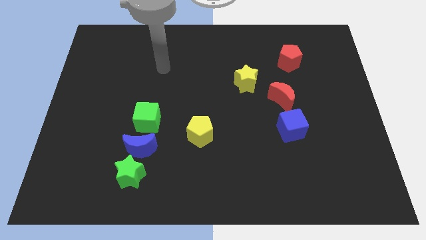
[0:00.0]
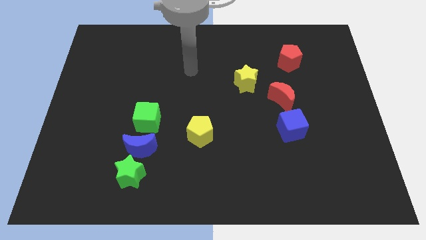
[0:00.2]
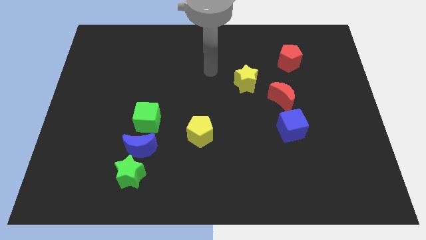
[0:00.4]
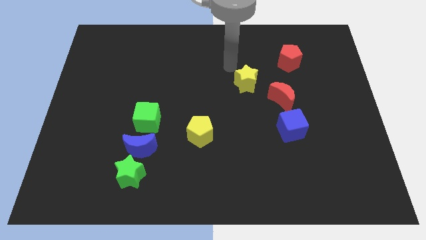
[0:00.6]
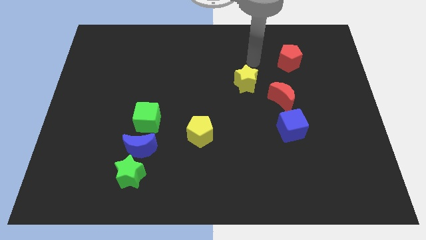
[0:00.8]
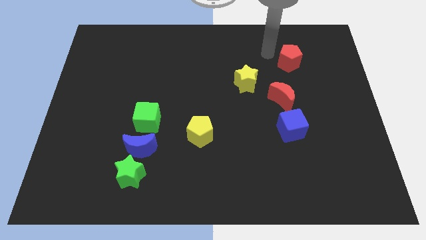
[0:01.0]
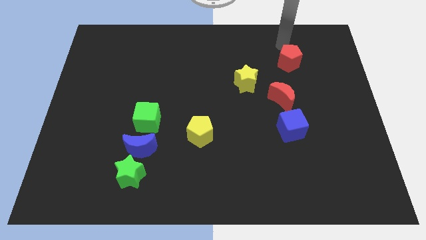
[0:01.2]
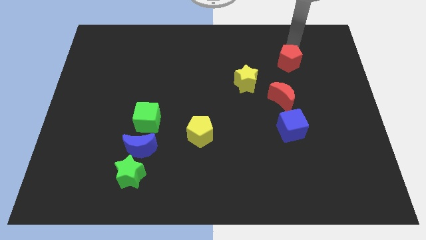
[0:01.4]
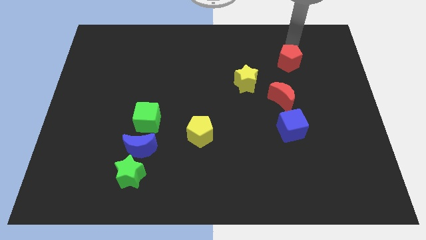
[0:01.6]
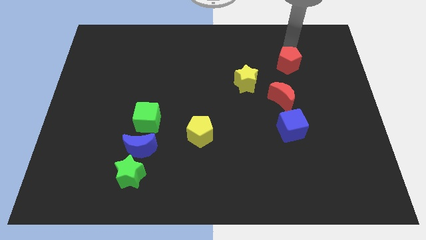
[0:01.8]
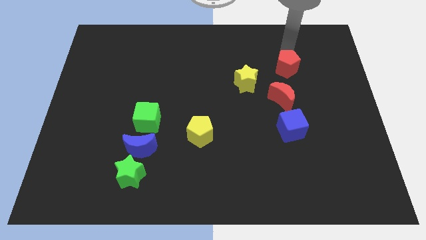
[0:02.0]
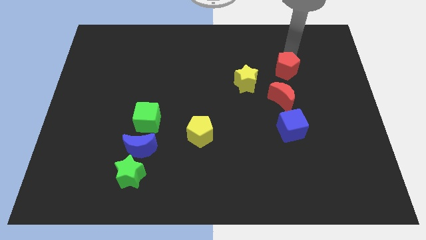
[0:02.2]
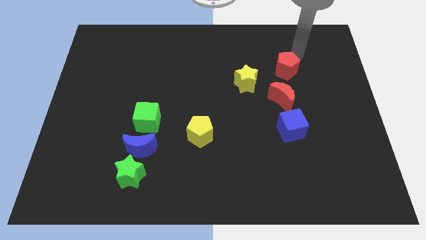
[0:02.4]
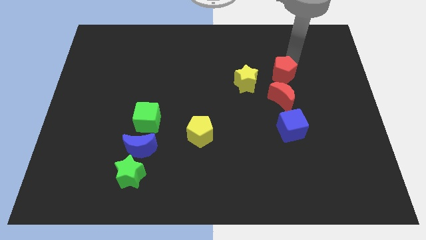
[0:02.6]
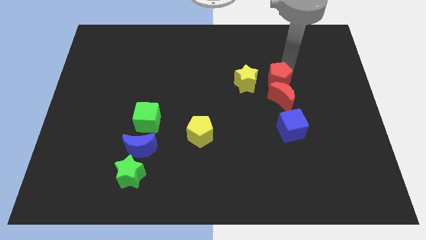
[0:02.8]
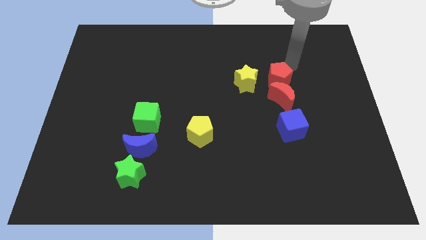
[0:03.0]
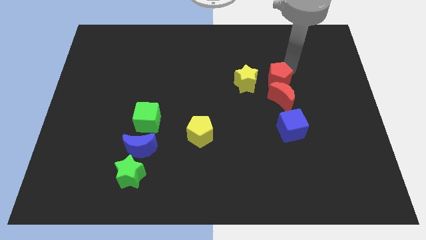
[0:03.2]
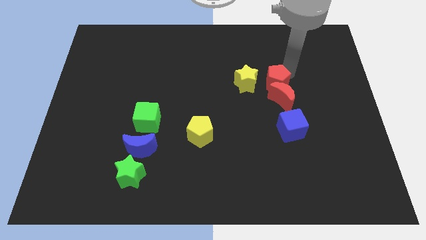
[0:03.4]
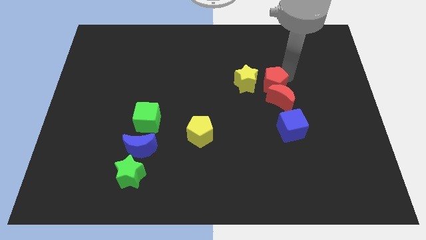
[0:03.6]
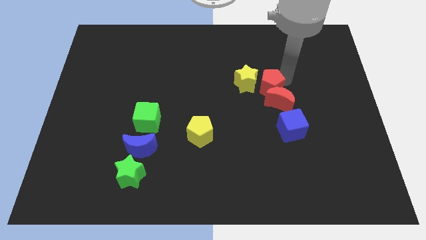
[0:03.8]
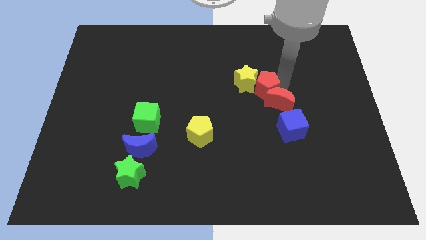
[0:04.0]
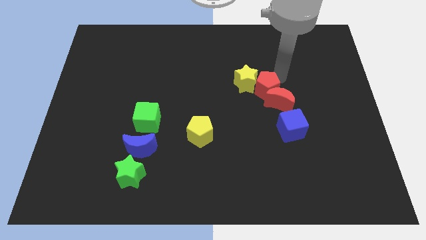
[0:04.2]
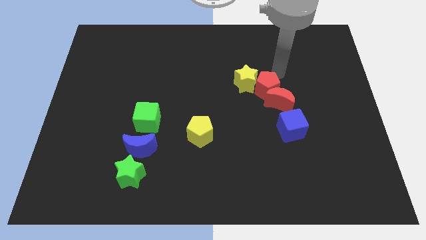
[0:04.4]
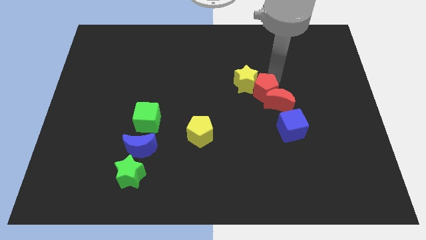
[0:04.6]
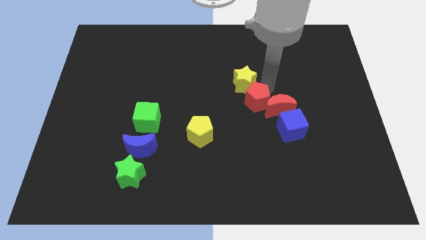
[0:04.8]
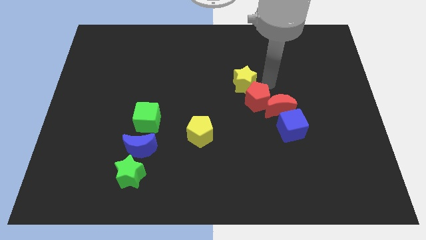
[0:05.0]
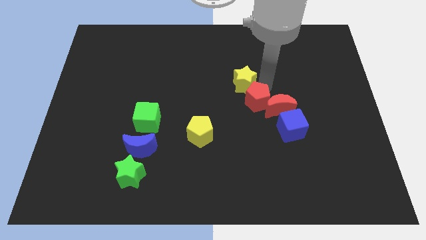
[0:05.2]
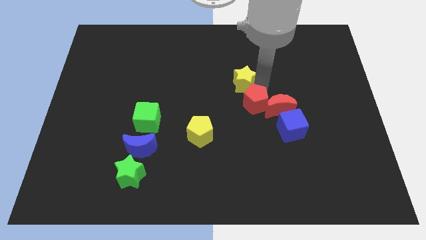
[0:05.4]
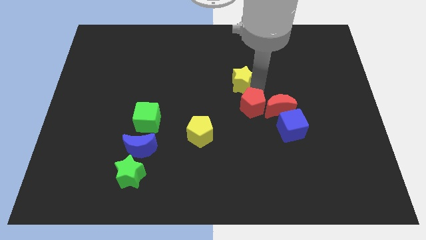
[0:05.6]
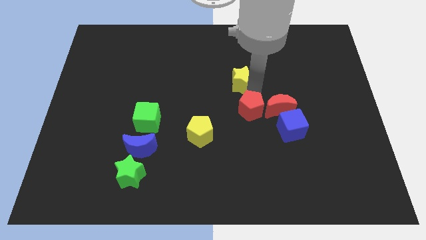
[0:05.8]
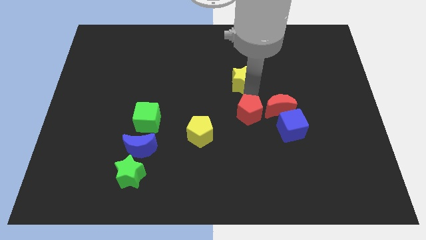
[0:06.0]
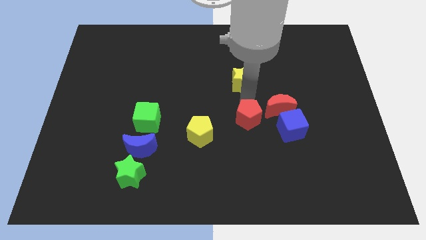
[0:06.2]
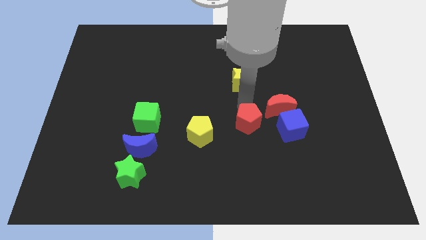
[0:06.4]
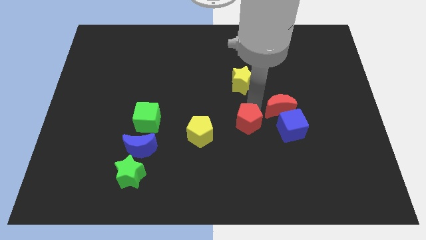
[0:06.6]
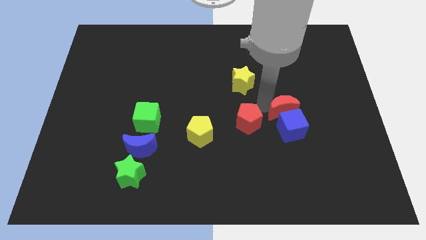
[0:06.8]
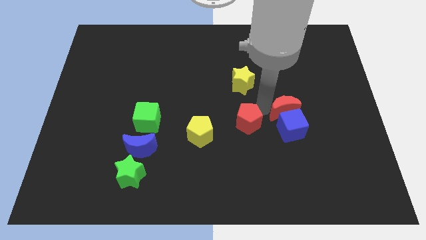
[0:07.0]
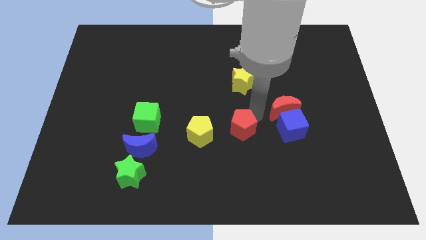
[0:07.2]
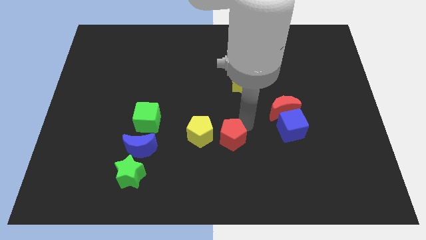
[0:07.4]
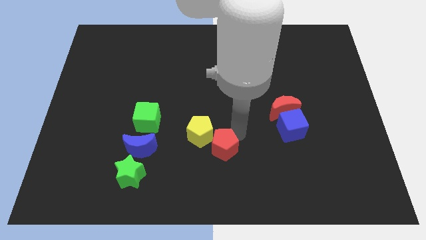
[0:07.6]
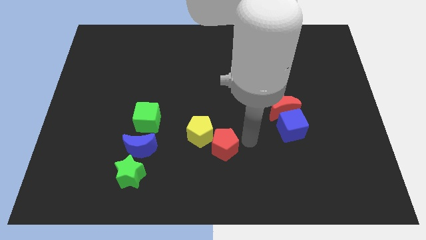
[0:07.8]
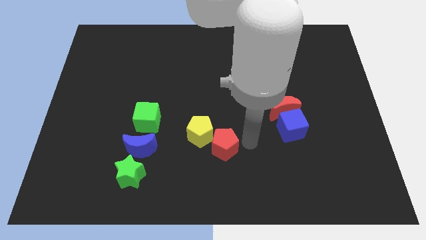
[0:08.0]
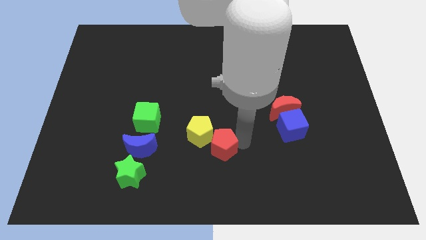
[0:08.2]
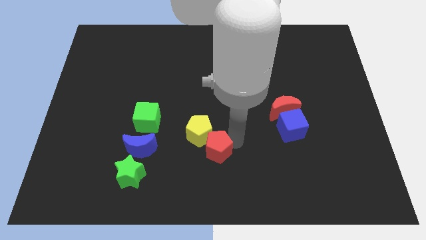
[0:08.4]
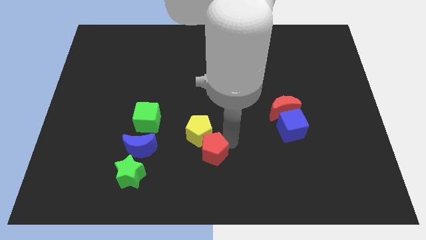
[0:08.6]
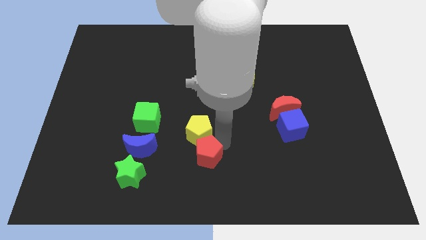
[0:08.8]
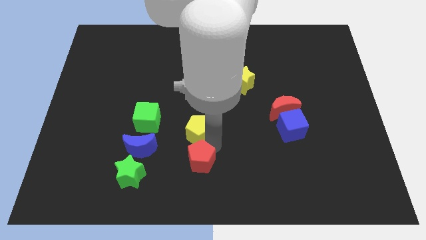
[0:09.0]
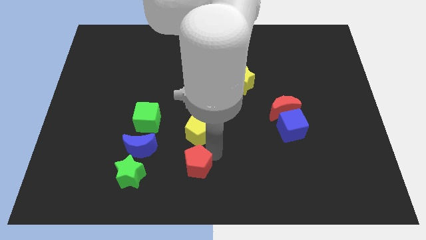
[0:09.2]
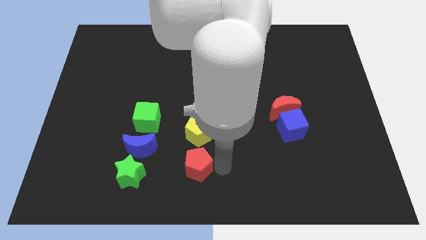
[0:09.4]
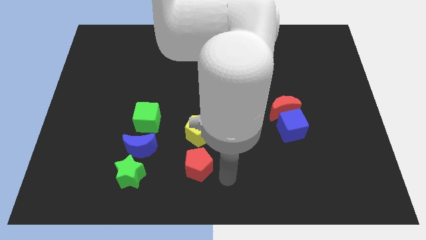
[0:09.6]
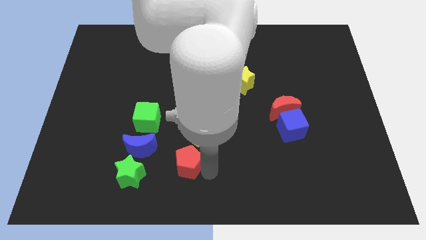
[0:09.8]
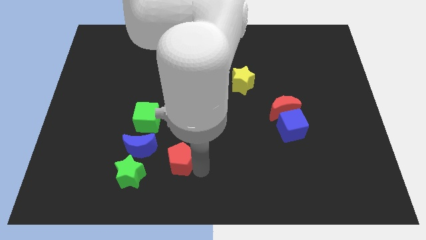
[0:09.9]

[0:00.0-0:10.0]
slide the red pentagon diagonally up and to the right of the green star

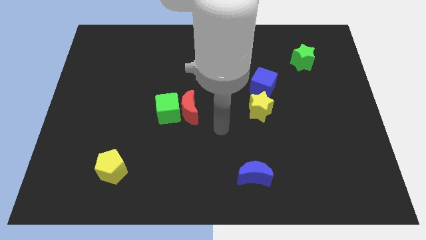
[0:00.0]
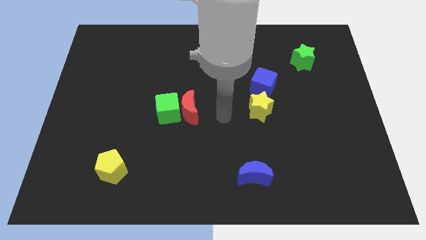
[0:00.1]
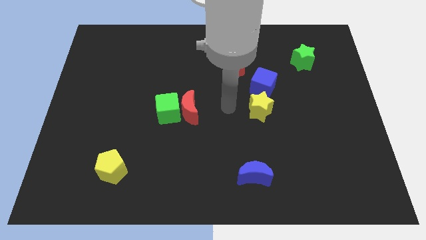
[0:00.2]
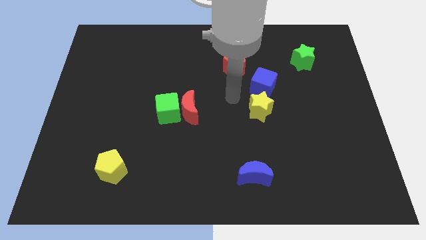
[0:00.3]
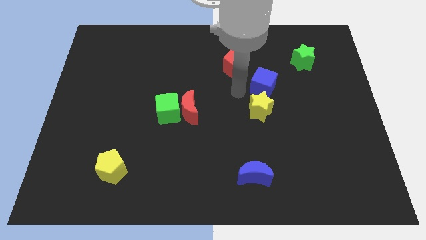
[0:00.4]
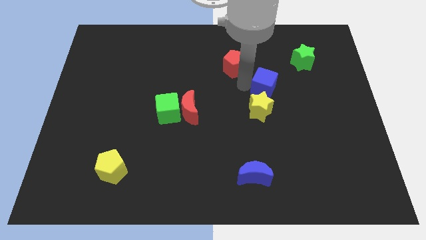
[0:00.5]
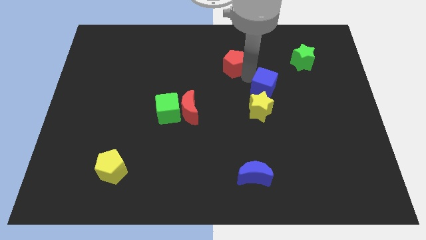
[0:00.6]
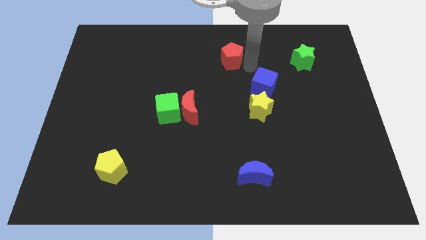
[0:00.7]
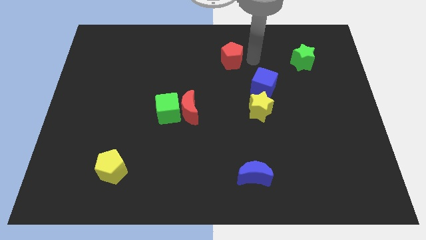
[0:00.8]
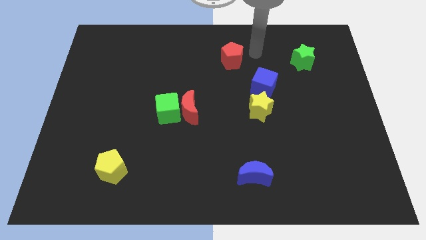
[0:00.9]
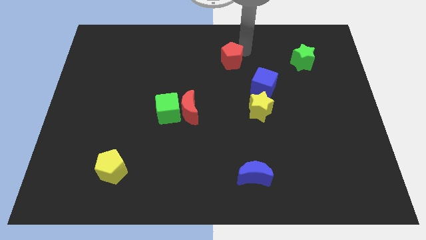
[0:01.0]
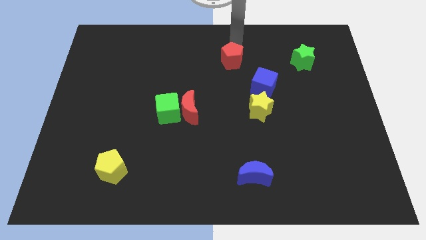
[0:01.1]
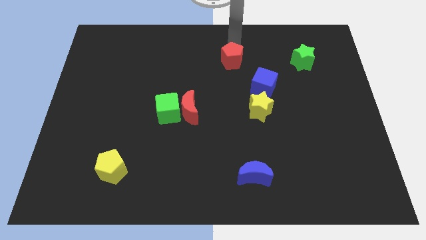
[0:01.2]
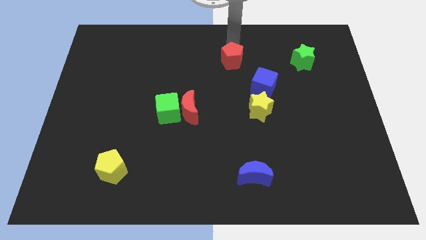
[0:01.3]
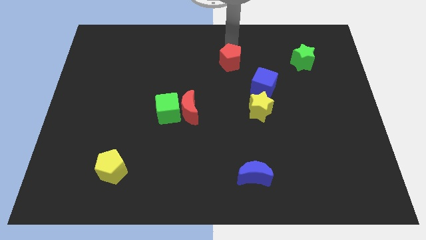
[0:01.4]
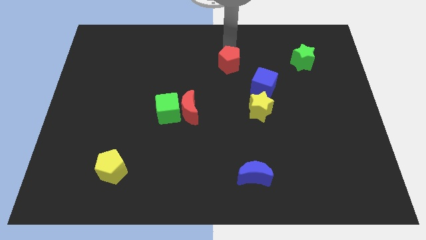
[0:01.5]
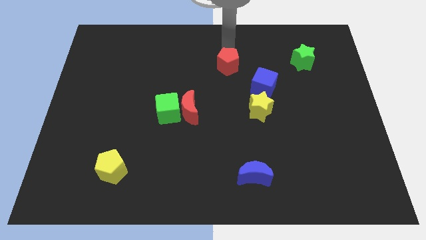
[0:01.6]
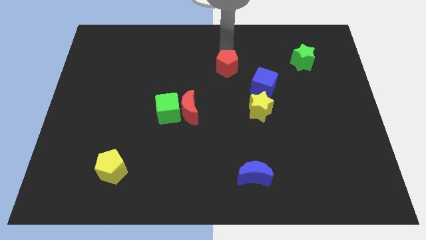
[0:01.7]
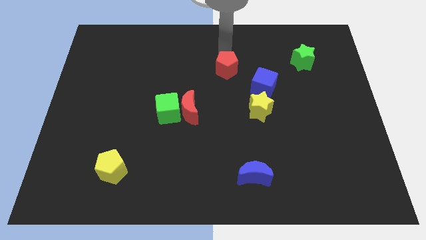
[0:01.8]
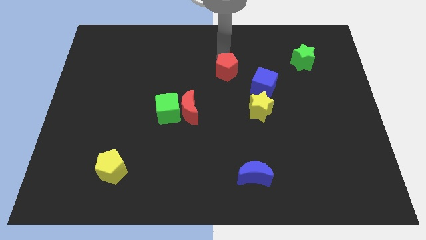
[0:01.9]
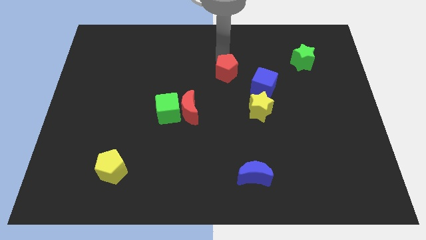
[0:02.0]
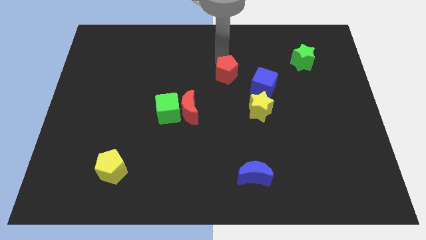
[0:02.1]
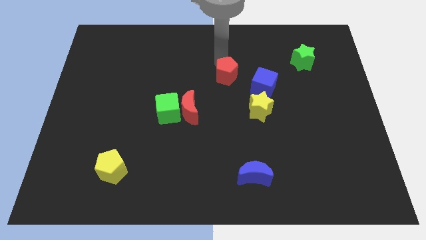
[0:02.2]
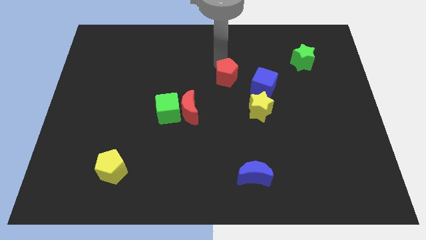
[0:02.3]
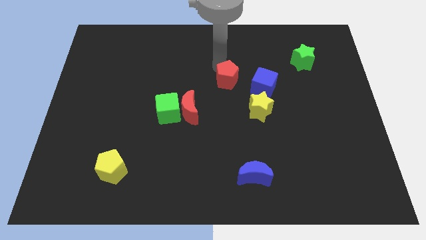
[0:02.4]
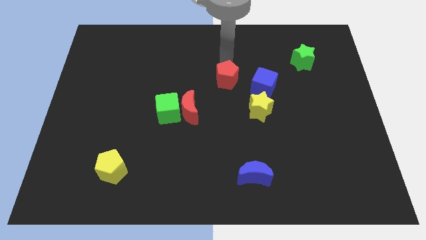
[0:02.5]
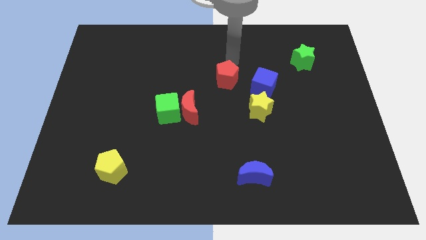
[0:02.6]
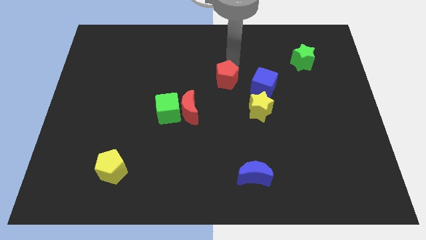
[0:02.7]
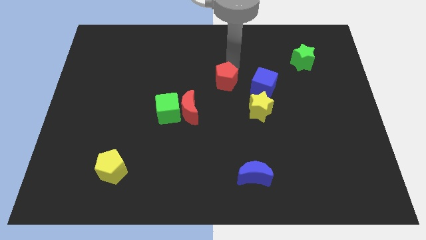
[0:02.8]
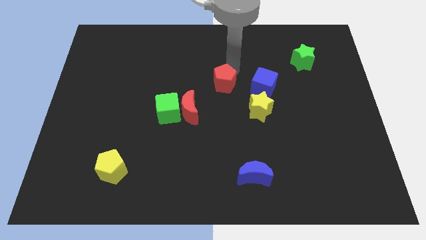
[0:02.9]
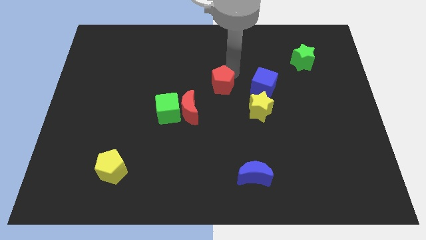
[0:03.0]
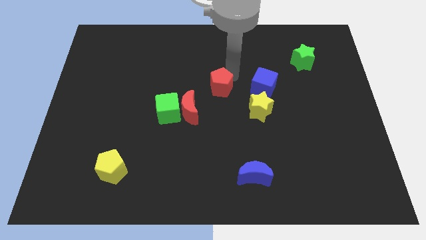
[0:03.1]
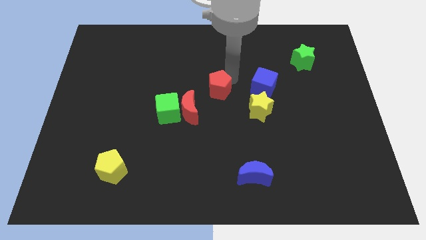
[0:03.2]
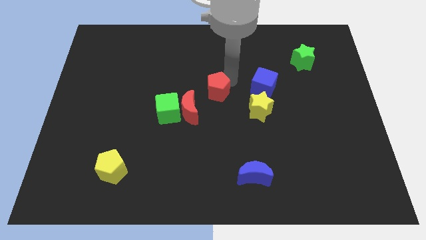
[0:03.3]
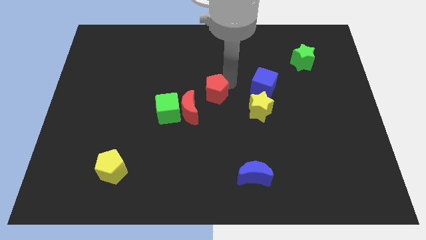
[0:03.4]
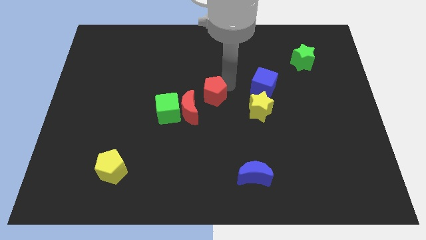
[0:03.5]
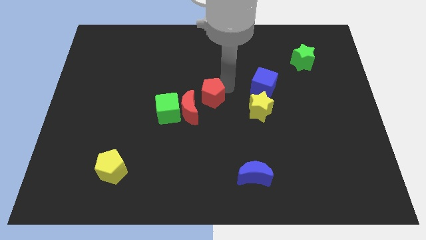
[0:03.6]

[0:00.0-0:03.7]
push the red pentagon just right of the green cube
